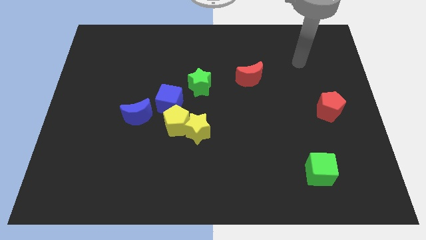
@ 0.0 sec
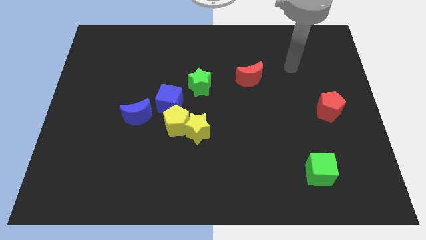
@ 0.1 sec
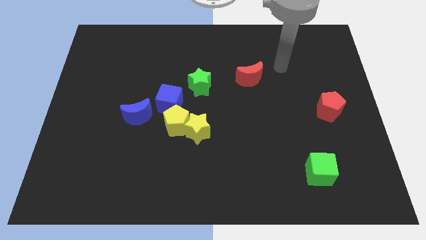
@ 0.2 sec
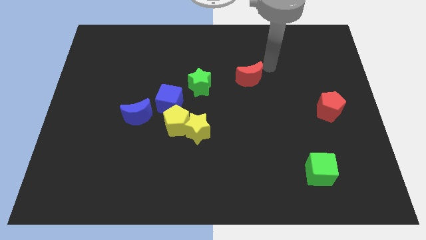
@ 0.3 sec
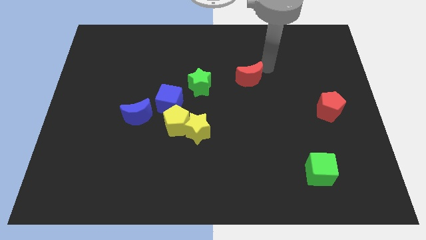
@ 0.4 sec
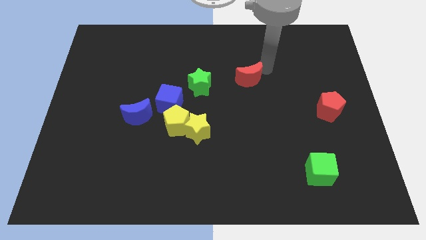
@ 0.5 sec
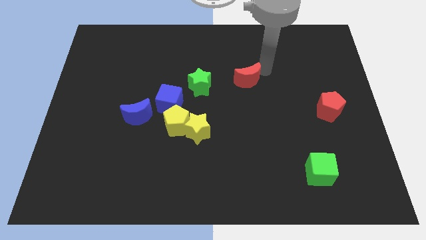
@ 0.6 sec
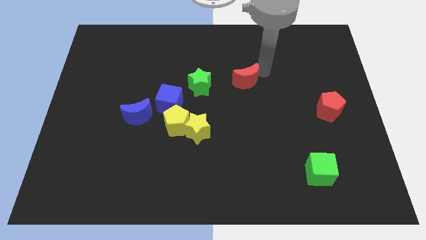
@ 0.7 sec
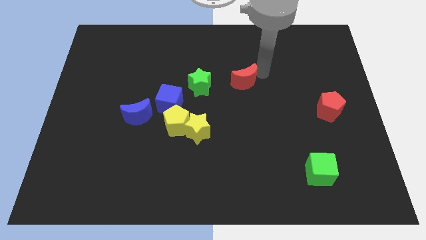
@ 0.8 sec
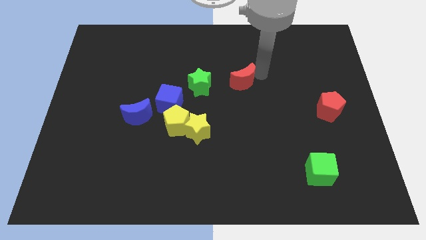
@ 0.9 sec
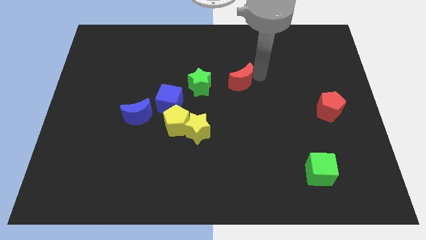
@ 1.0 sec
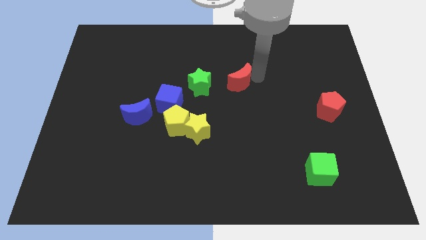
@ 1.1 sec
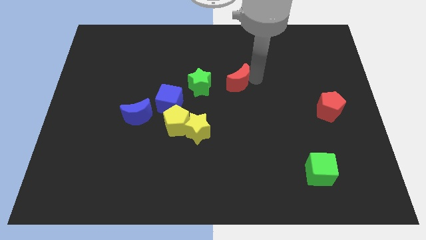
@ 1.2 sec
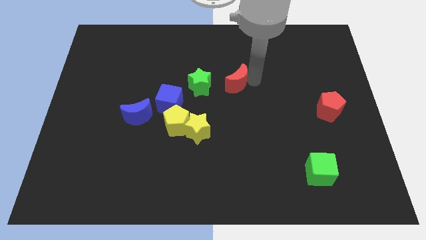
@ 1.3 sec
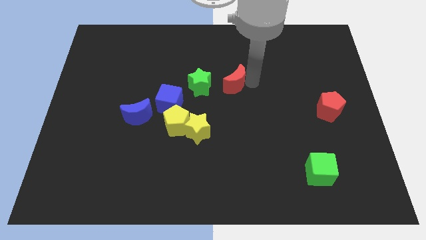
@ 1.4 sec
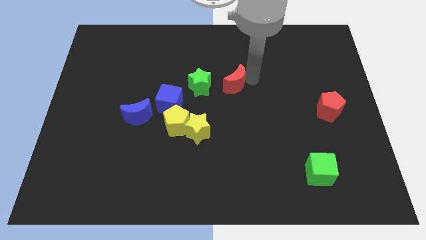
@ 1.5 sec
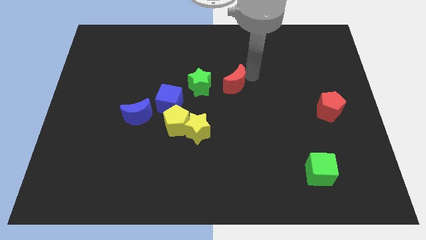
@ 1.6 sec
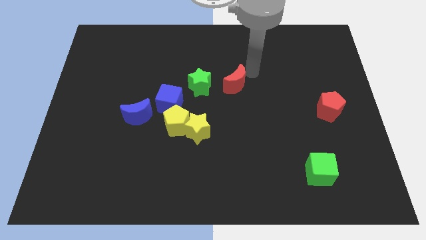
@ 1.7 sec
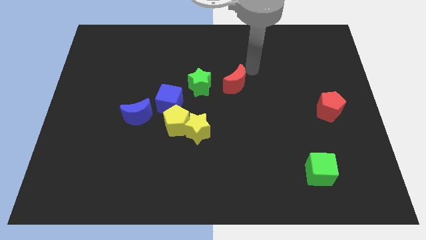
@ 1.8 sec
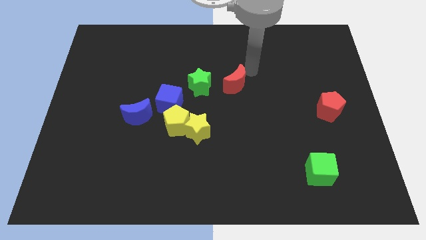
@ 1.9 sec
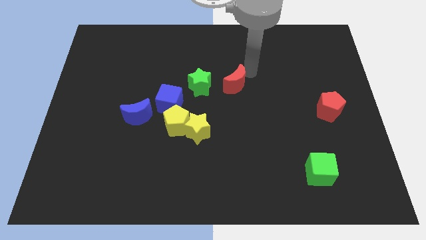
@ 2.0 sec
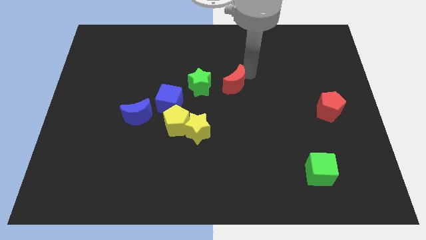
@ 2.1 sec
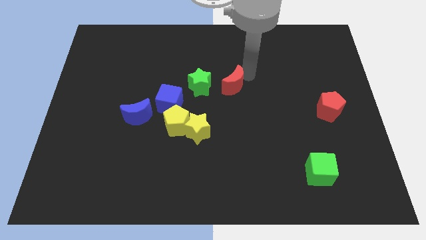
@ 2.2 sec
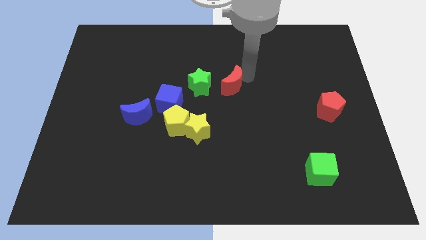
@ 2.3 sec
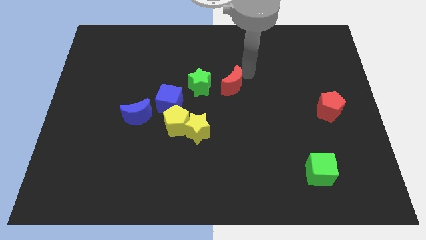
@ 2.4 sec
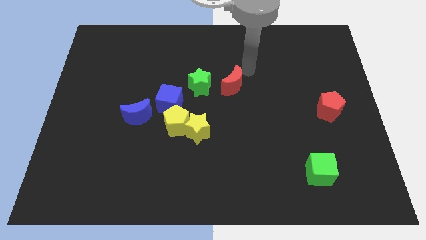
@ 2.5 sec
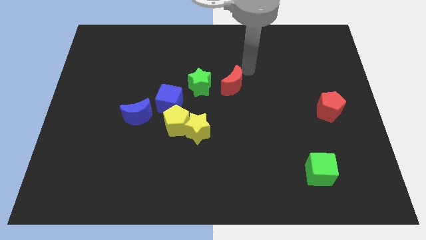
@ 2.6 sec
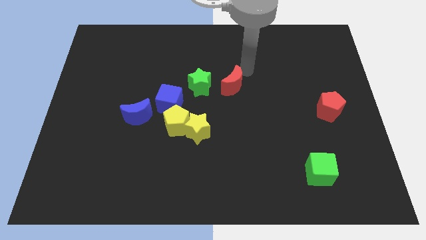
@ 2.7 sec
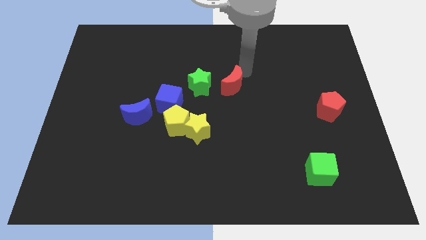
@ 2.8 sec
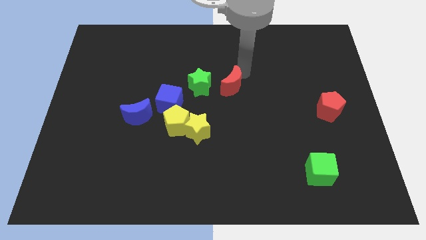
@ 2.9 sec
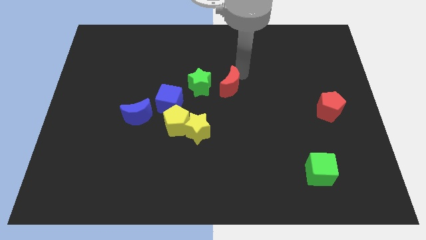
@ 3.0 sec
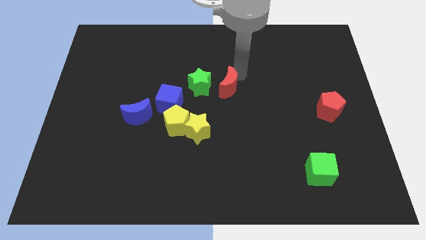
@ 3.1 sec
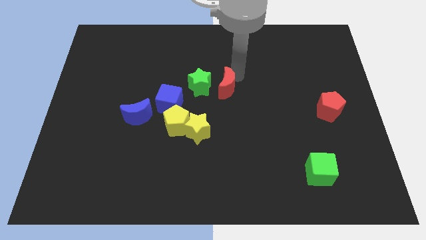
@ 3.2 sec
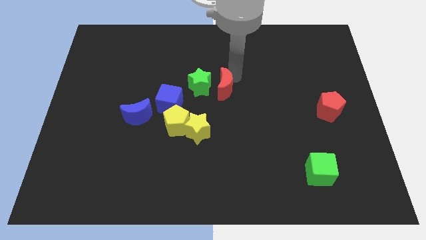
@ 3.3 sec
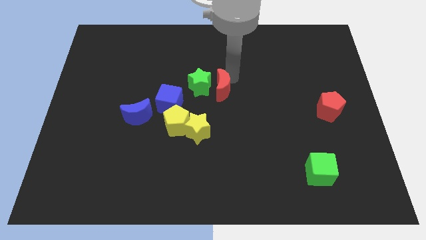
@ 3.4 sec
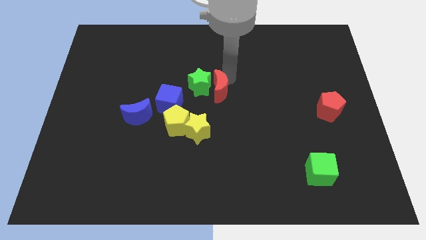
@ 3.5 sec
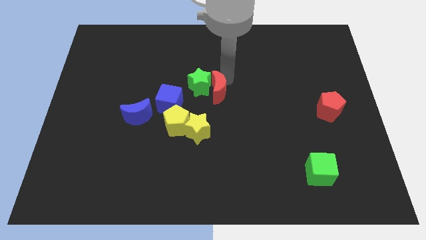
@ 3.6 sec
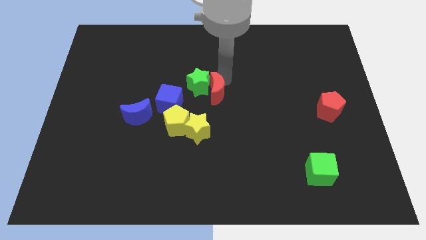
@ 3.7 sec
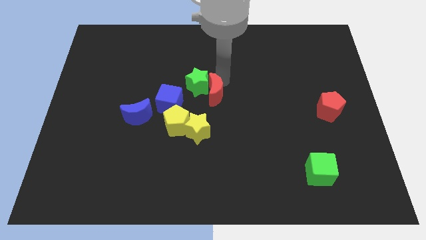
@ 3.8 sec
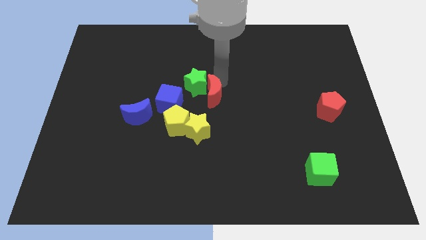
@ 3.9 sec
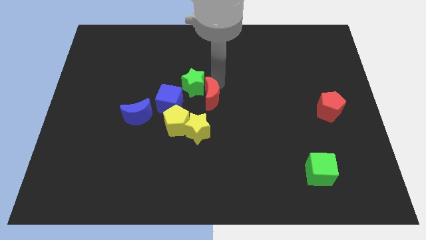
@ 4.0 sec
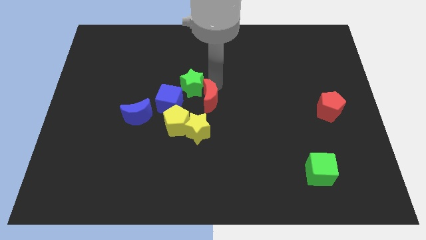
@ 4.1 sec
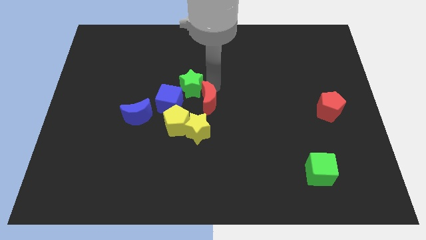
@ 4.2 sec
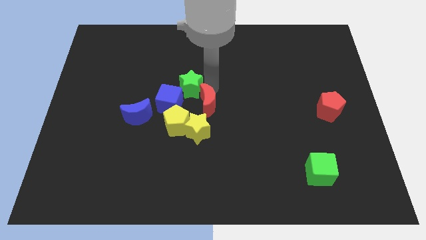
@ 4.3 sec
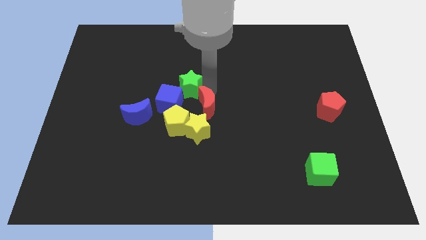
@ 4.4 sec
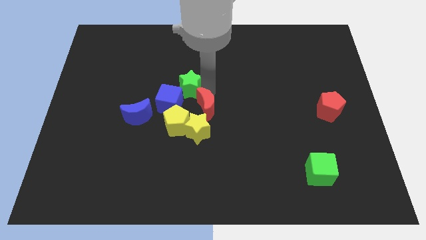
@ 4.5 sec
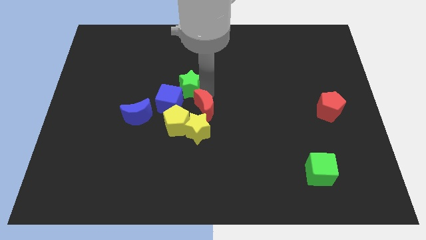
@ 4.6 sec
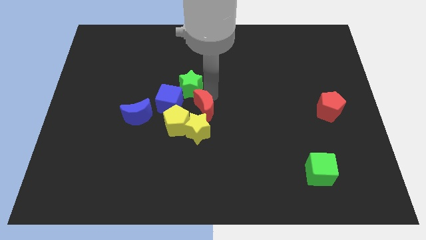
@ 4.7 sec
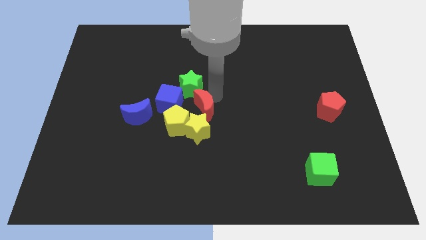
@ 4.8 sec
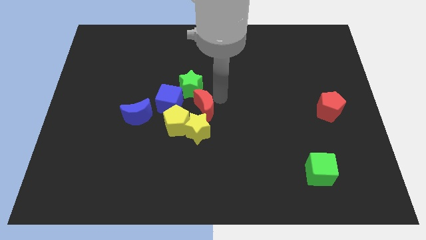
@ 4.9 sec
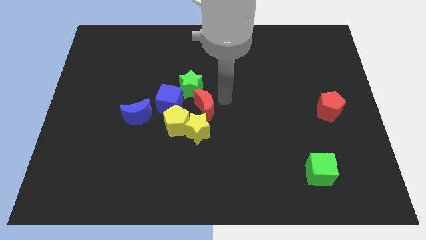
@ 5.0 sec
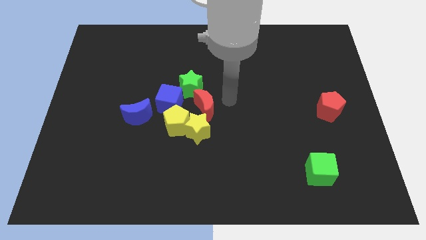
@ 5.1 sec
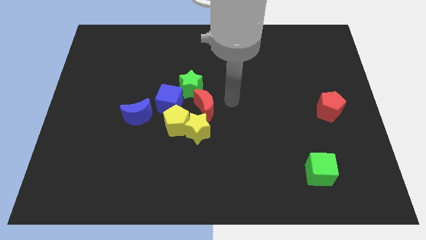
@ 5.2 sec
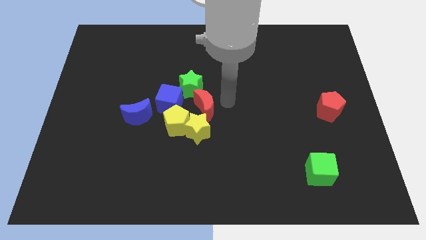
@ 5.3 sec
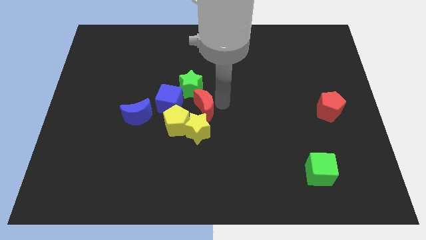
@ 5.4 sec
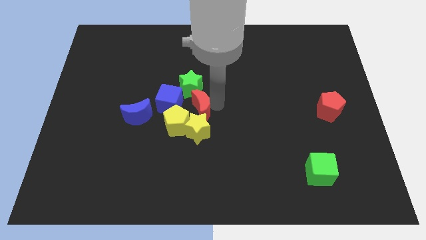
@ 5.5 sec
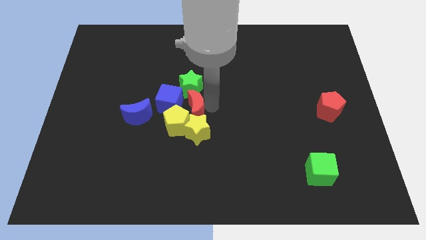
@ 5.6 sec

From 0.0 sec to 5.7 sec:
move the red moon towards the yellow pentagon

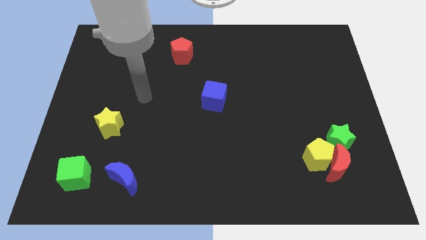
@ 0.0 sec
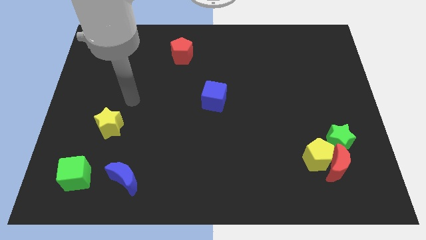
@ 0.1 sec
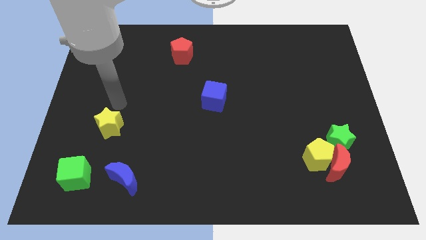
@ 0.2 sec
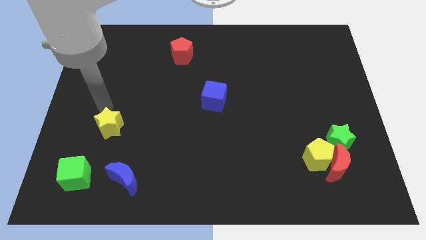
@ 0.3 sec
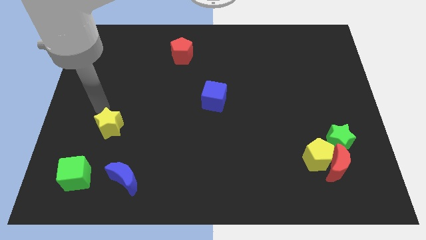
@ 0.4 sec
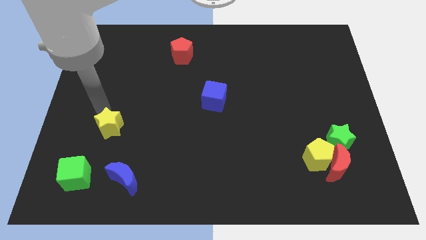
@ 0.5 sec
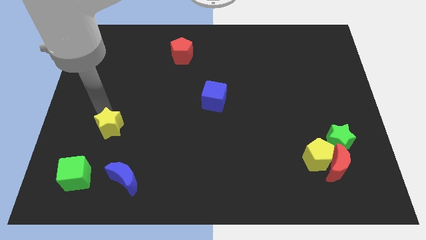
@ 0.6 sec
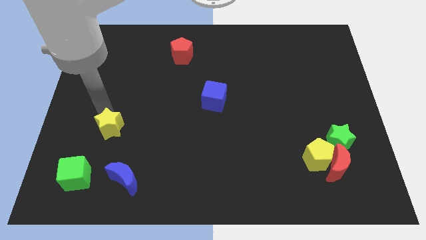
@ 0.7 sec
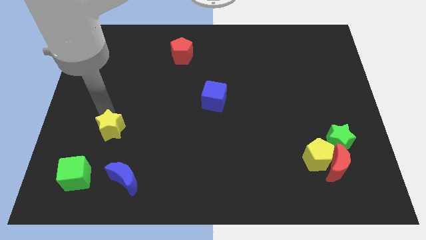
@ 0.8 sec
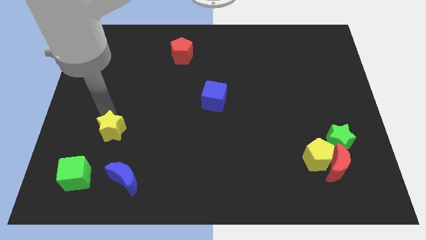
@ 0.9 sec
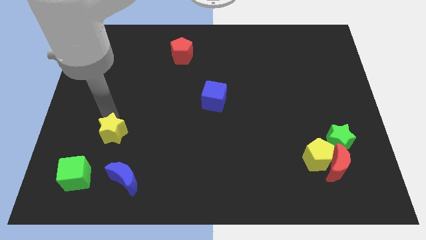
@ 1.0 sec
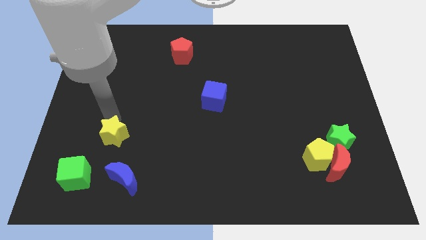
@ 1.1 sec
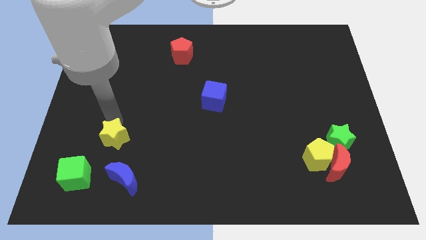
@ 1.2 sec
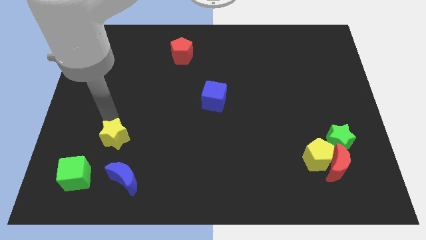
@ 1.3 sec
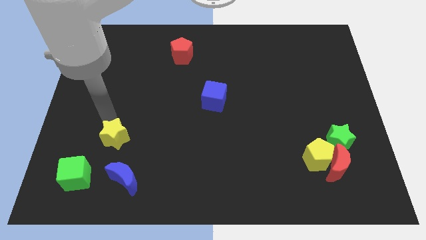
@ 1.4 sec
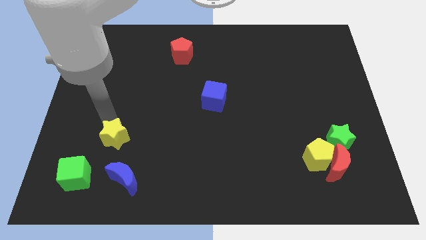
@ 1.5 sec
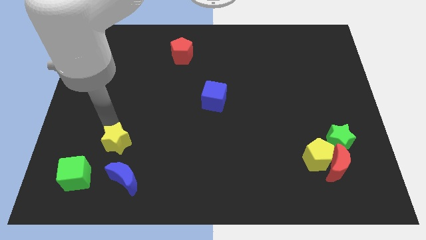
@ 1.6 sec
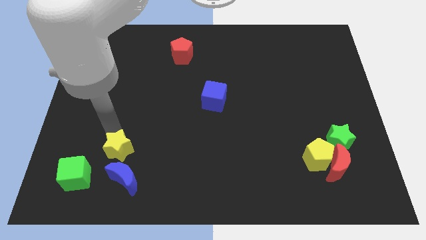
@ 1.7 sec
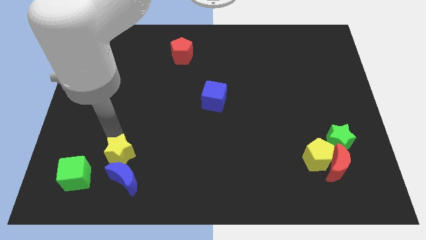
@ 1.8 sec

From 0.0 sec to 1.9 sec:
push the yellow star close to the blue moon
